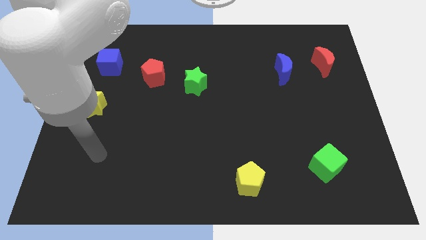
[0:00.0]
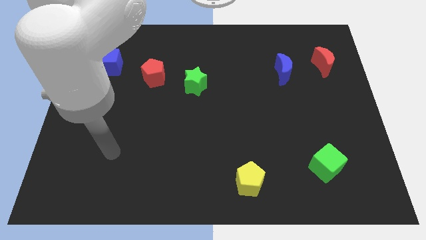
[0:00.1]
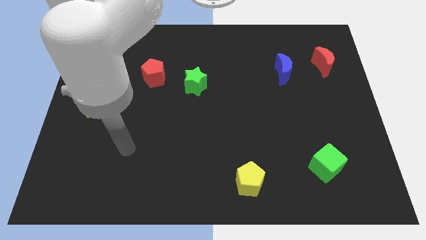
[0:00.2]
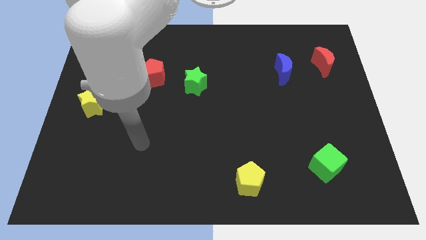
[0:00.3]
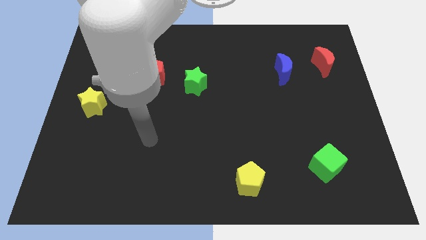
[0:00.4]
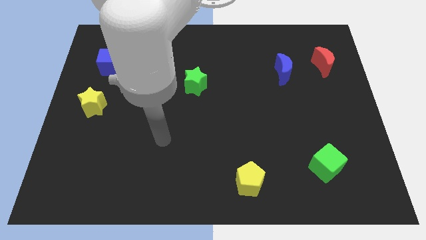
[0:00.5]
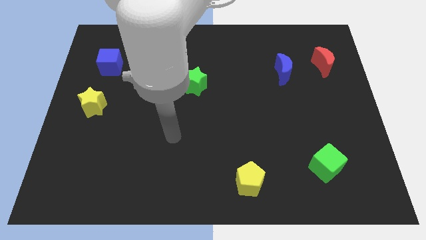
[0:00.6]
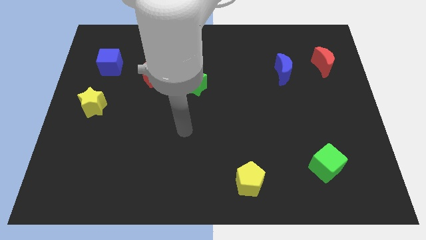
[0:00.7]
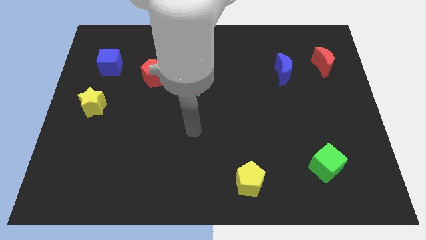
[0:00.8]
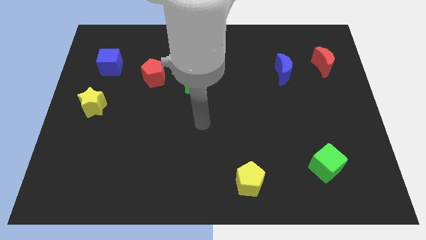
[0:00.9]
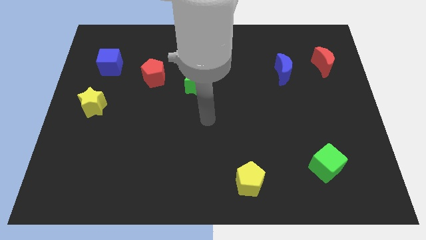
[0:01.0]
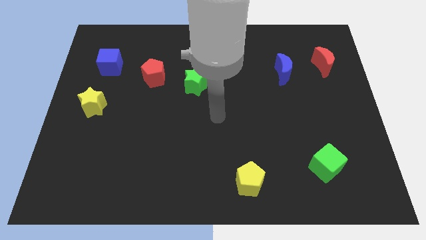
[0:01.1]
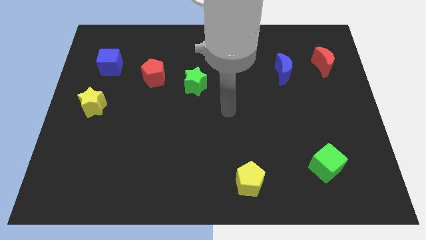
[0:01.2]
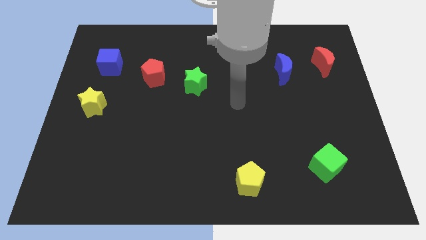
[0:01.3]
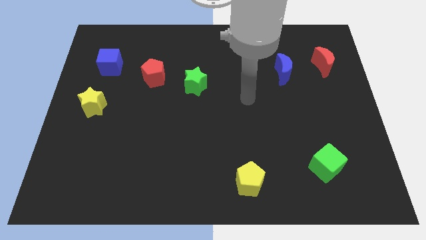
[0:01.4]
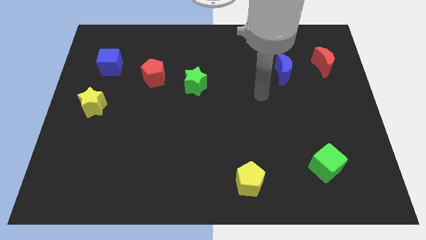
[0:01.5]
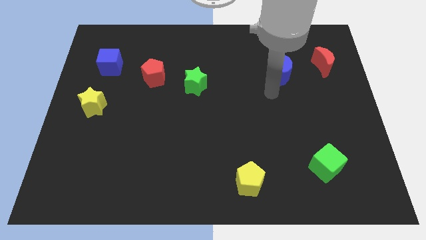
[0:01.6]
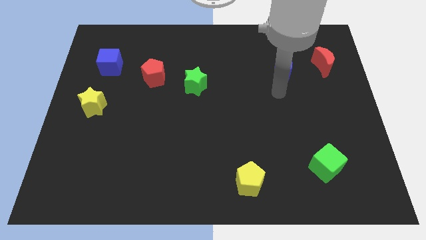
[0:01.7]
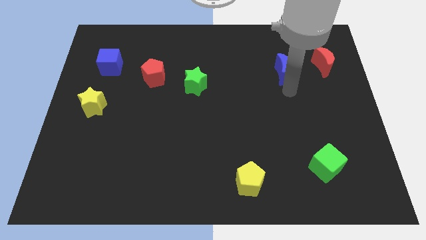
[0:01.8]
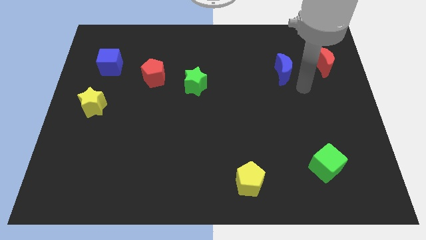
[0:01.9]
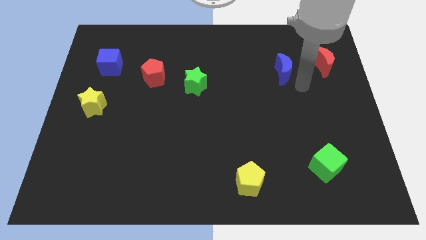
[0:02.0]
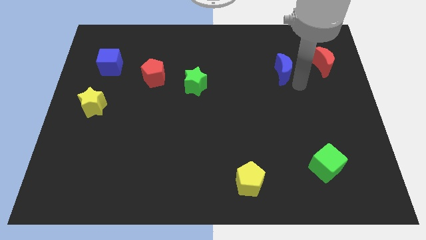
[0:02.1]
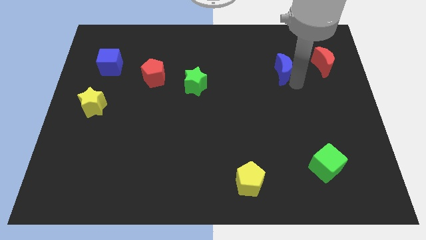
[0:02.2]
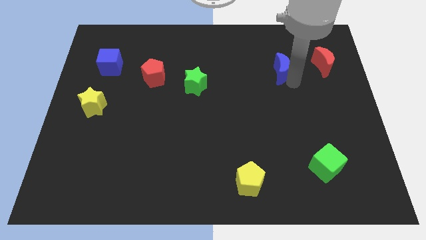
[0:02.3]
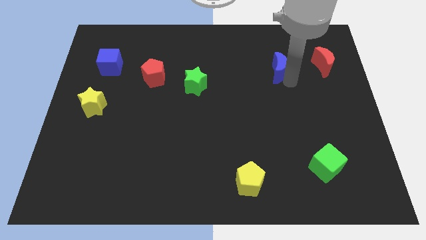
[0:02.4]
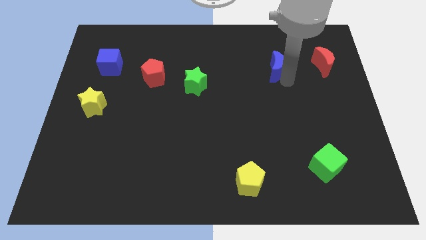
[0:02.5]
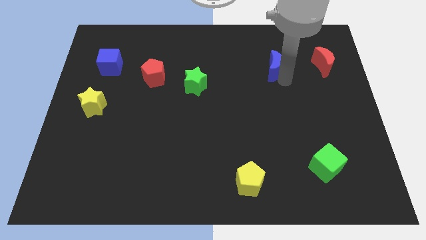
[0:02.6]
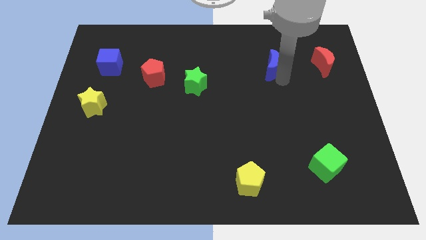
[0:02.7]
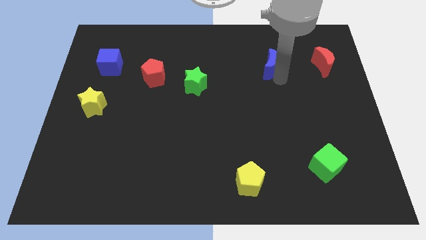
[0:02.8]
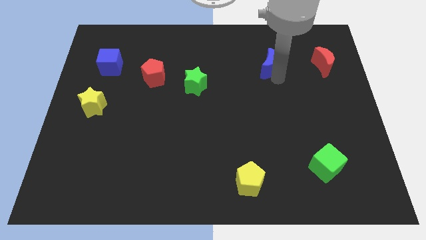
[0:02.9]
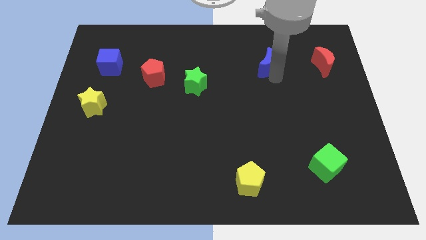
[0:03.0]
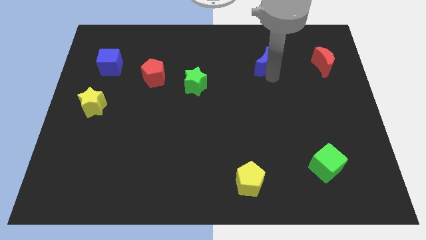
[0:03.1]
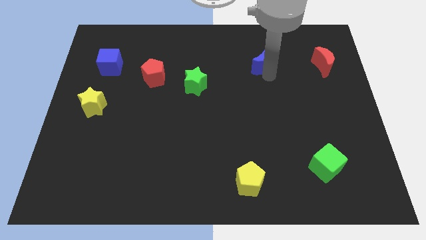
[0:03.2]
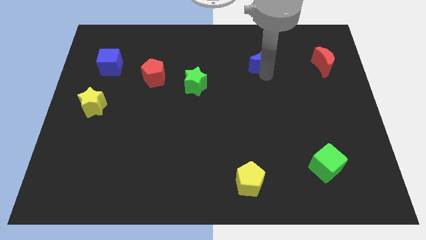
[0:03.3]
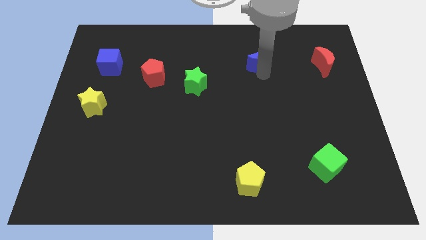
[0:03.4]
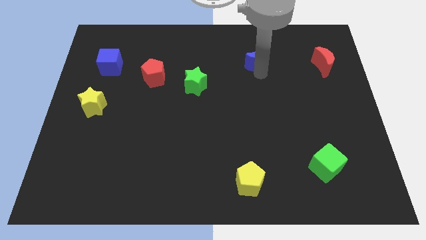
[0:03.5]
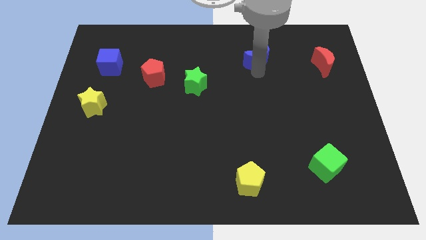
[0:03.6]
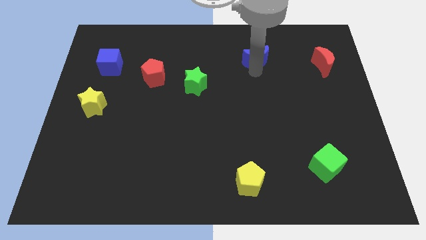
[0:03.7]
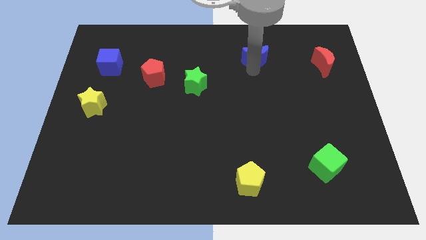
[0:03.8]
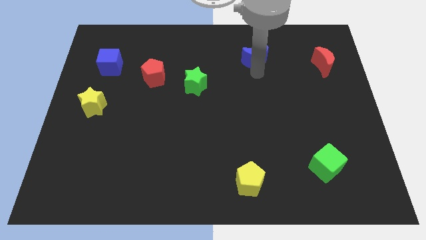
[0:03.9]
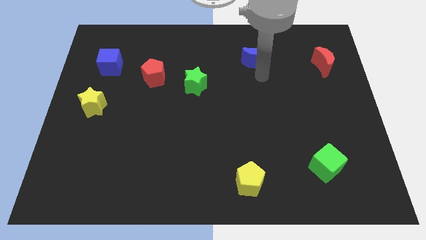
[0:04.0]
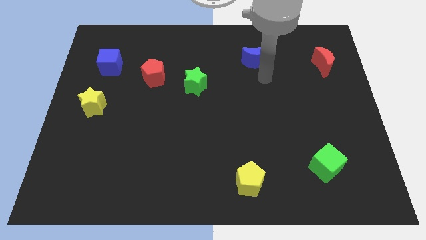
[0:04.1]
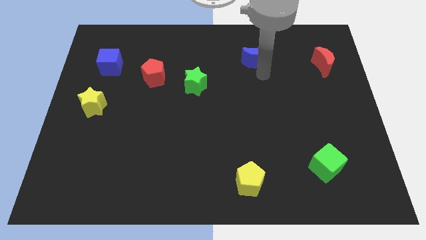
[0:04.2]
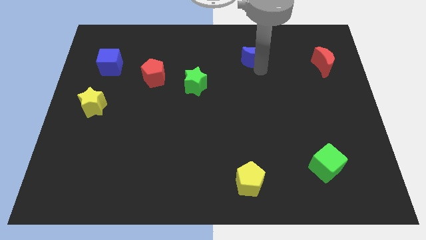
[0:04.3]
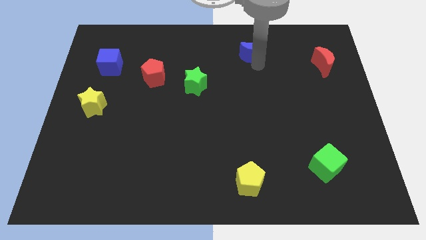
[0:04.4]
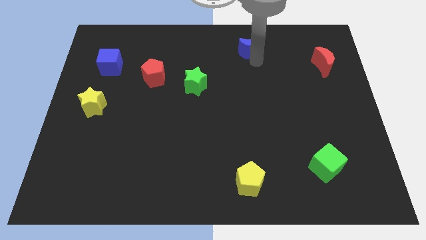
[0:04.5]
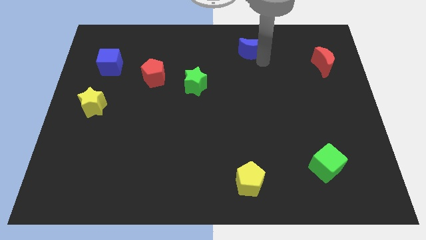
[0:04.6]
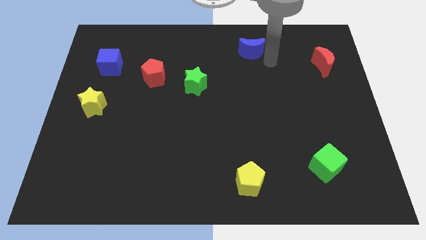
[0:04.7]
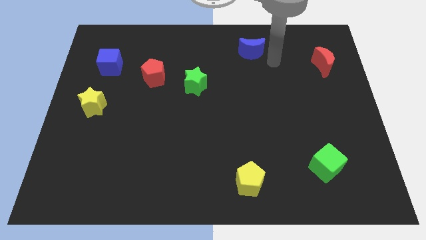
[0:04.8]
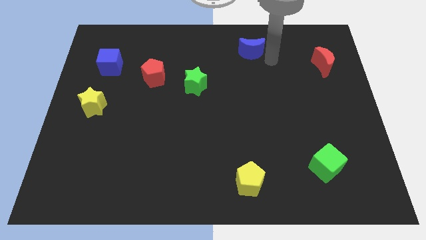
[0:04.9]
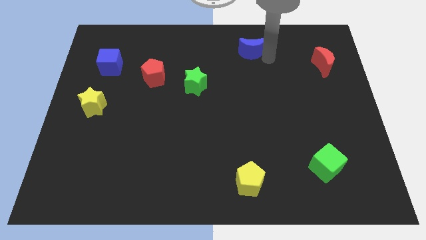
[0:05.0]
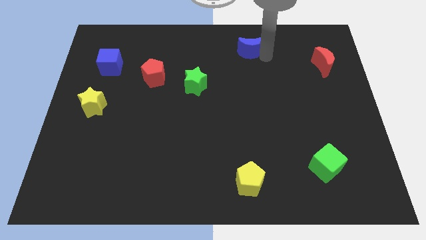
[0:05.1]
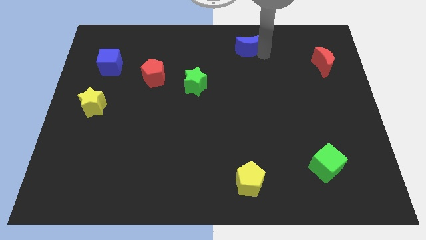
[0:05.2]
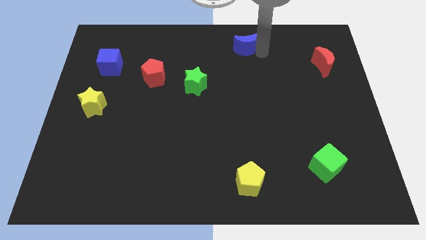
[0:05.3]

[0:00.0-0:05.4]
move the blue moon to the top

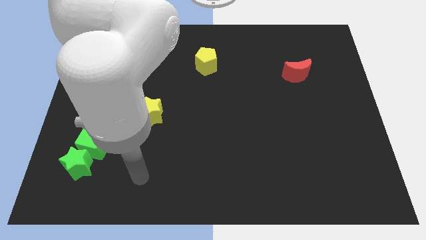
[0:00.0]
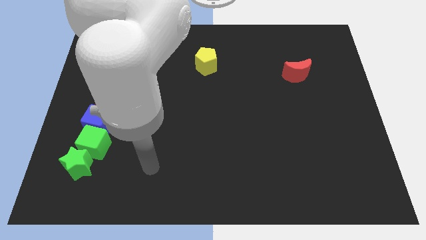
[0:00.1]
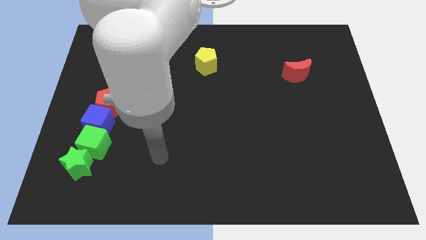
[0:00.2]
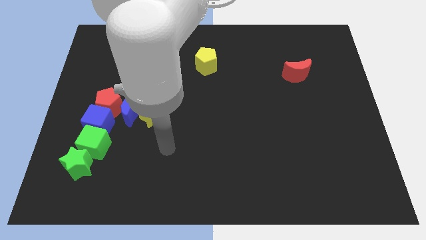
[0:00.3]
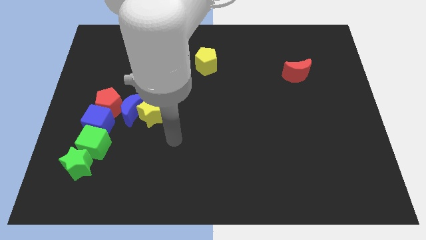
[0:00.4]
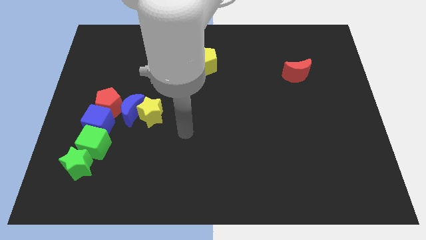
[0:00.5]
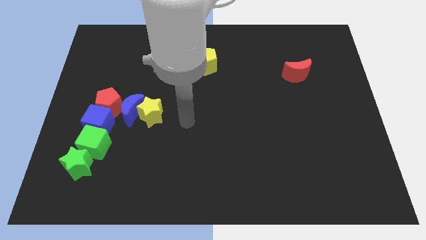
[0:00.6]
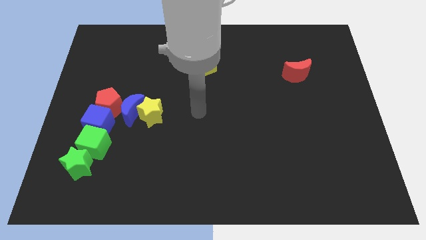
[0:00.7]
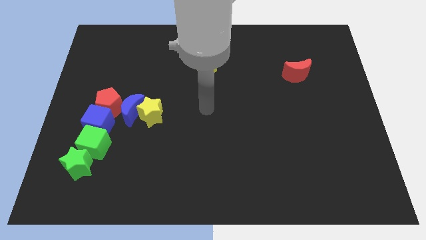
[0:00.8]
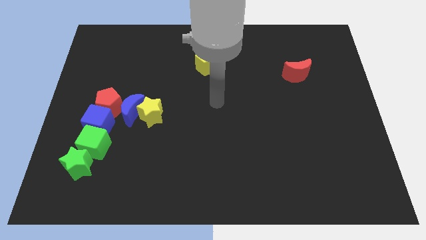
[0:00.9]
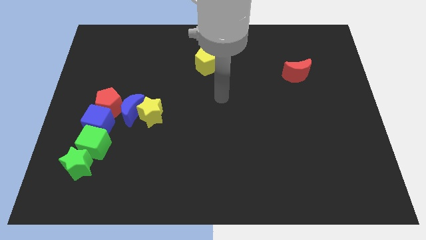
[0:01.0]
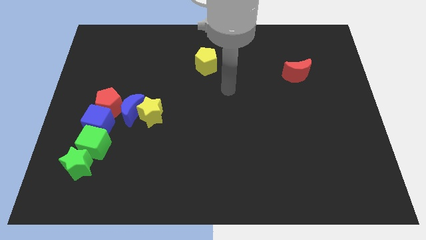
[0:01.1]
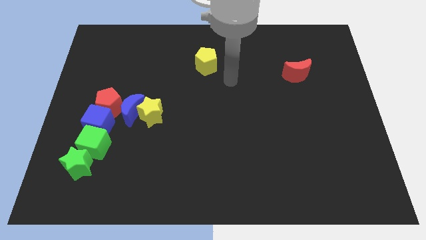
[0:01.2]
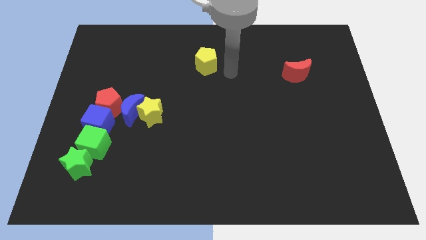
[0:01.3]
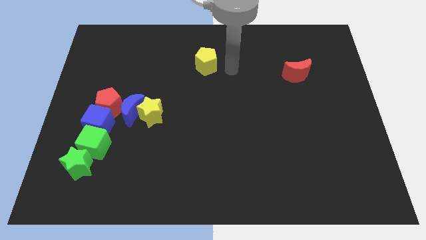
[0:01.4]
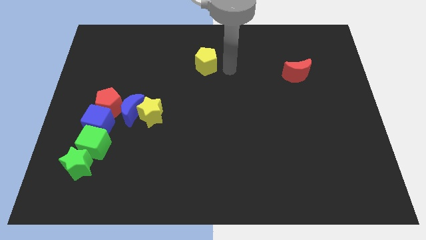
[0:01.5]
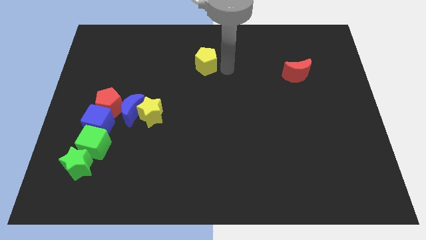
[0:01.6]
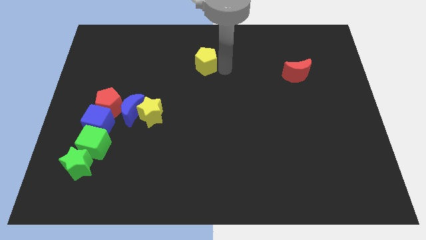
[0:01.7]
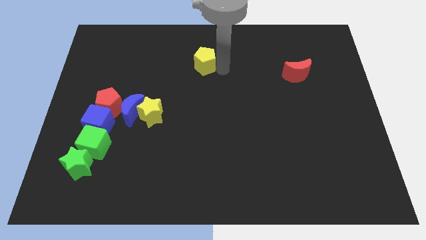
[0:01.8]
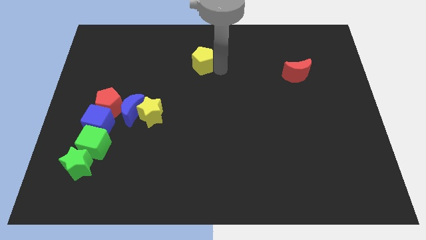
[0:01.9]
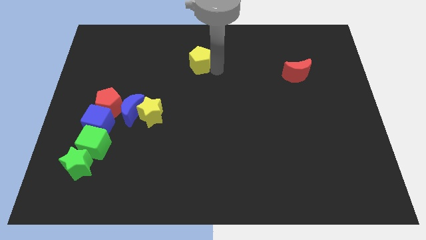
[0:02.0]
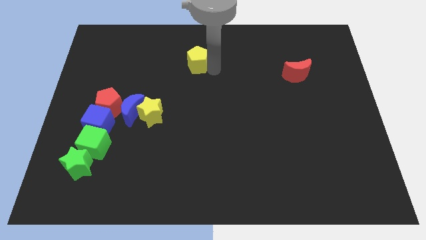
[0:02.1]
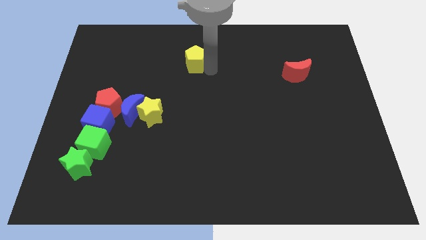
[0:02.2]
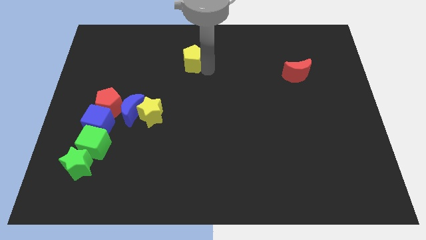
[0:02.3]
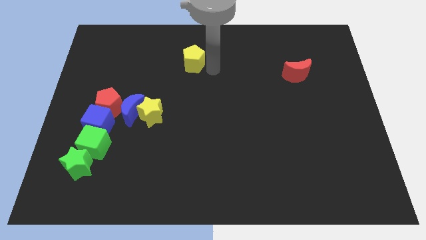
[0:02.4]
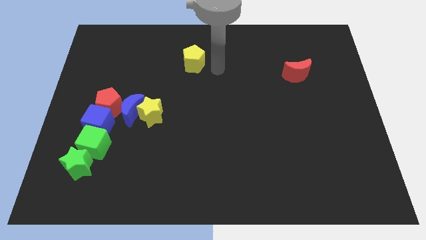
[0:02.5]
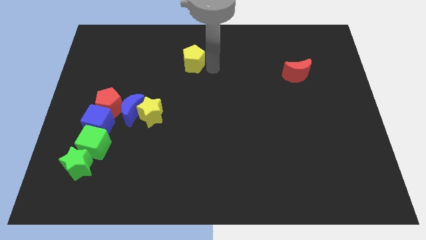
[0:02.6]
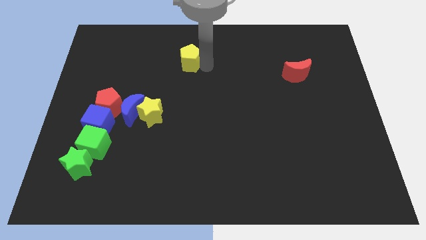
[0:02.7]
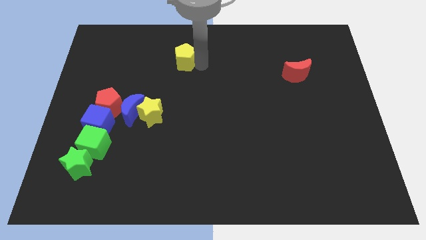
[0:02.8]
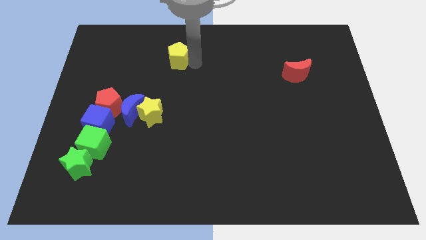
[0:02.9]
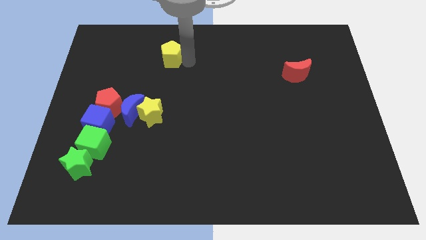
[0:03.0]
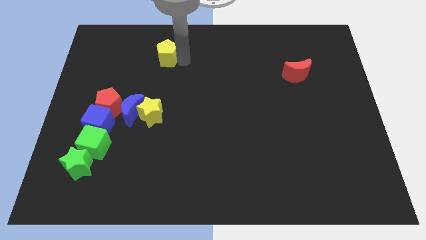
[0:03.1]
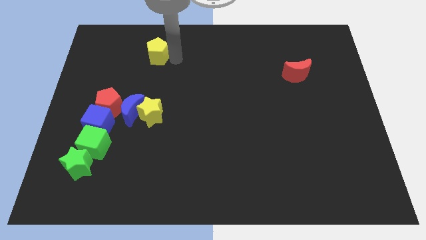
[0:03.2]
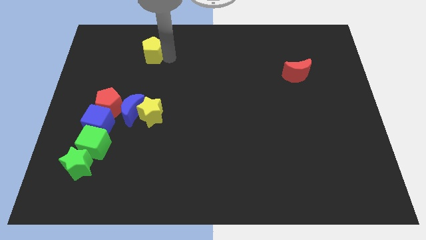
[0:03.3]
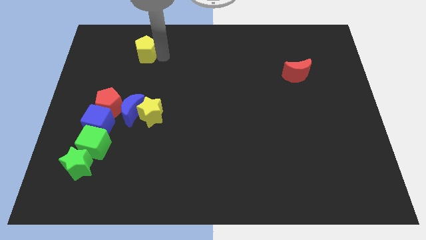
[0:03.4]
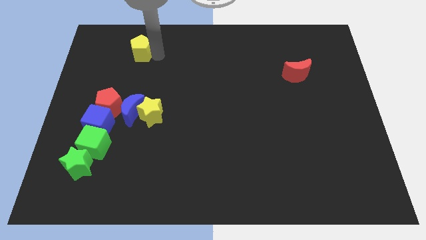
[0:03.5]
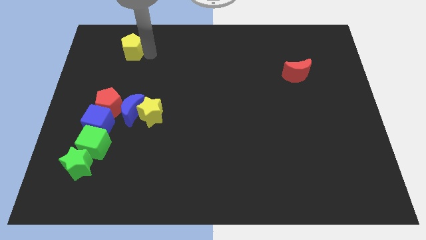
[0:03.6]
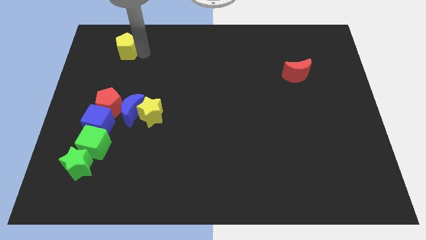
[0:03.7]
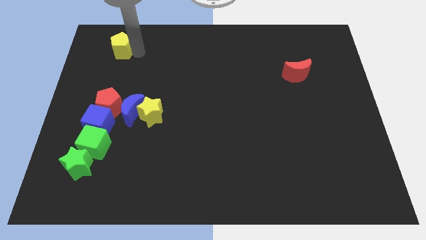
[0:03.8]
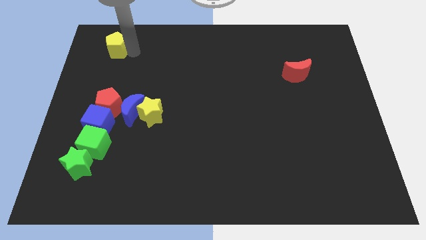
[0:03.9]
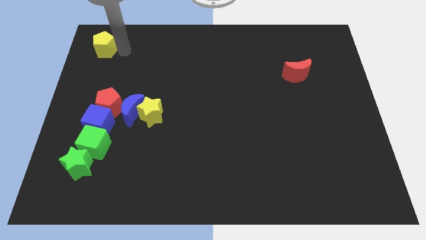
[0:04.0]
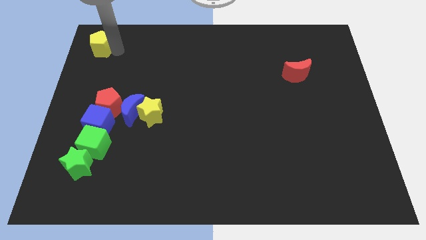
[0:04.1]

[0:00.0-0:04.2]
put the yellow pentagon to the top left corner
